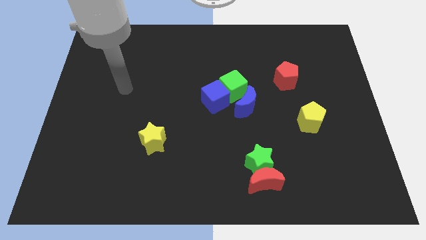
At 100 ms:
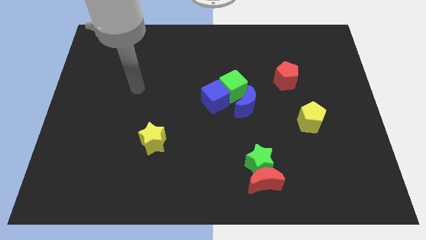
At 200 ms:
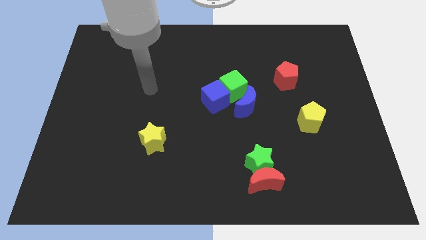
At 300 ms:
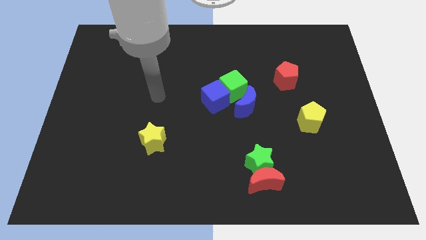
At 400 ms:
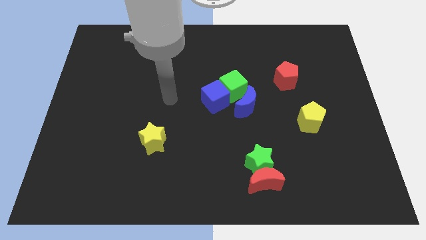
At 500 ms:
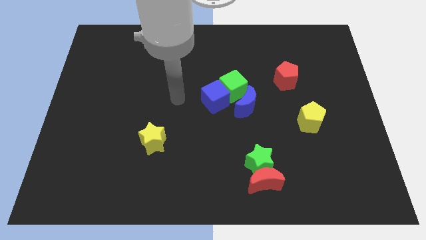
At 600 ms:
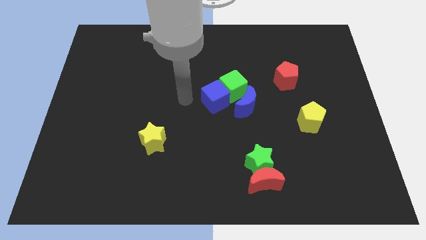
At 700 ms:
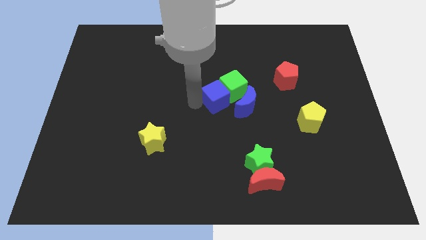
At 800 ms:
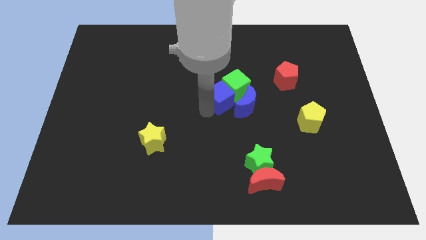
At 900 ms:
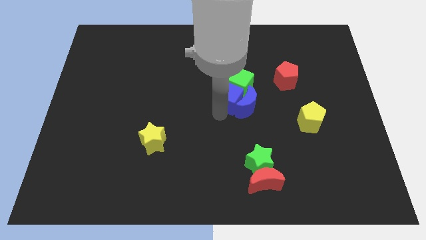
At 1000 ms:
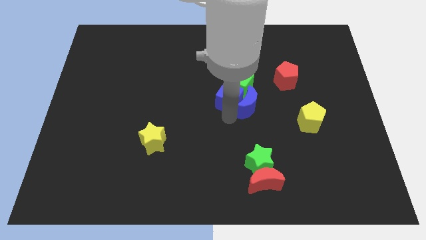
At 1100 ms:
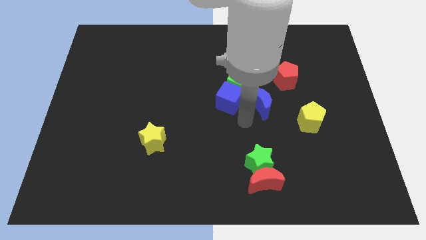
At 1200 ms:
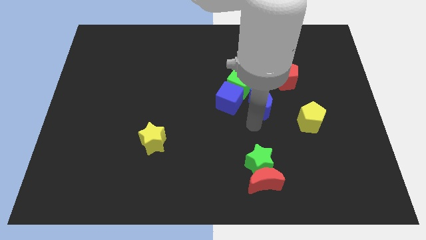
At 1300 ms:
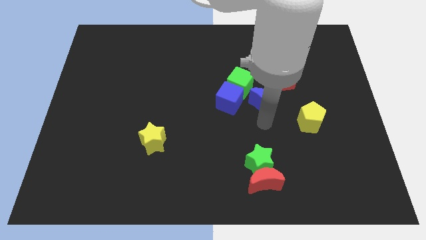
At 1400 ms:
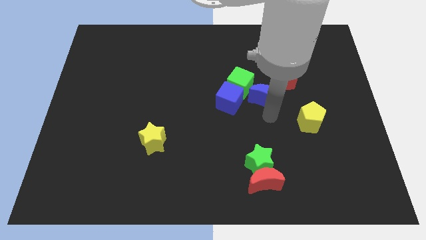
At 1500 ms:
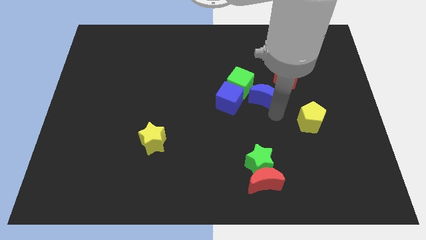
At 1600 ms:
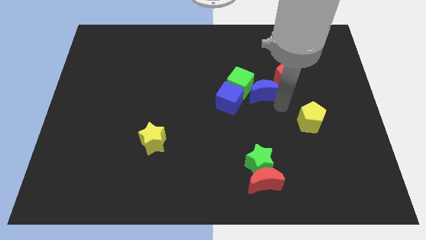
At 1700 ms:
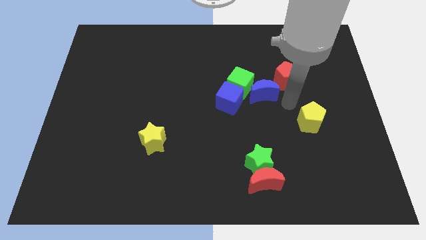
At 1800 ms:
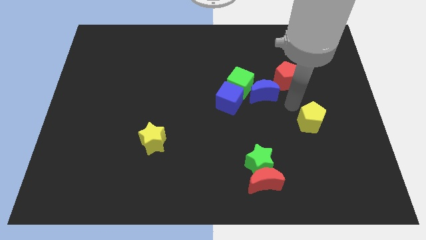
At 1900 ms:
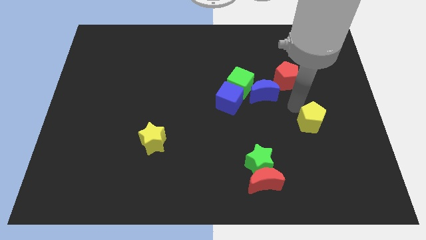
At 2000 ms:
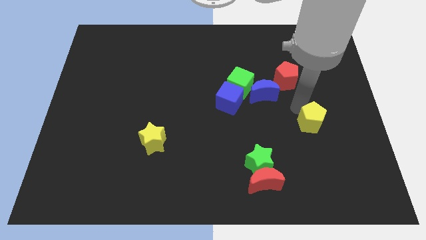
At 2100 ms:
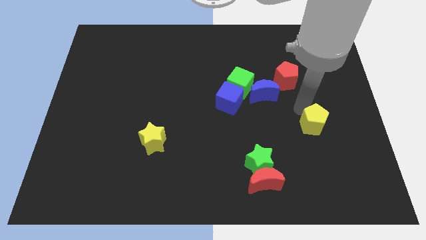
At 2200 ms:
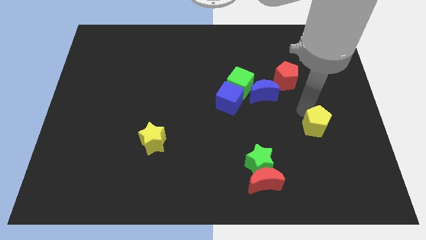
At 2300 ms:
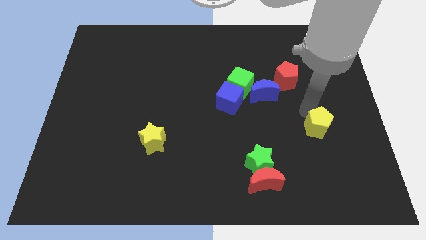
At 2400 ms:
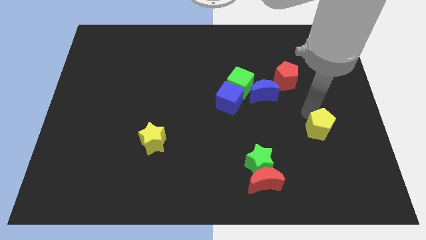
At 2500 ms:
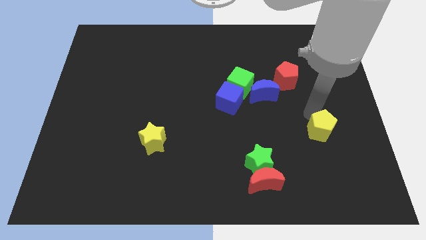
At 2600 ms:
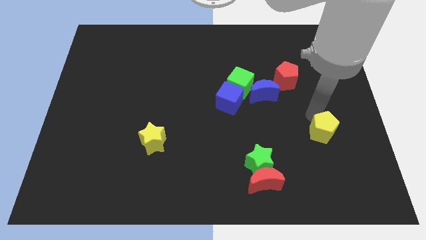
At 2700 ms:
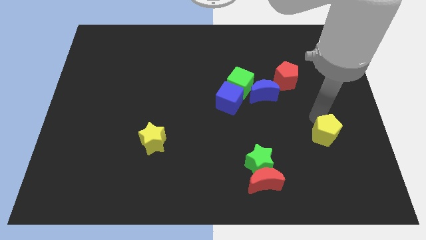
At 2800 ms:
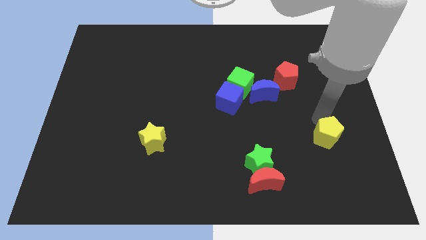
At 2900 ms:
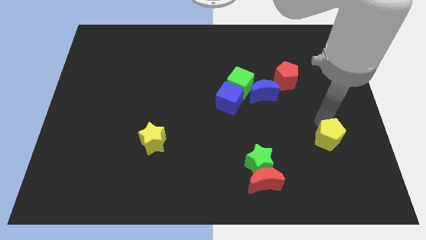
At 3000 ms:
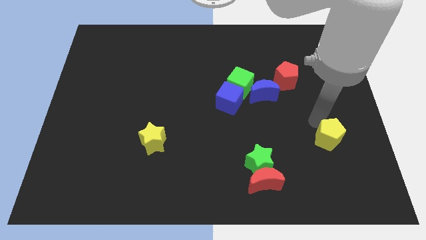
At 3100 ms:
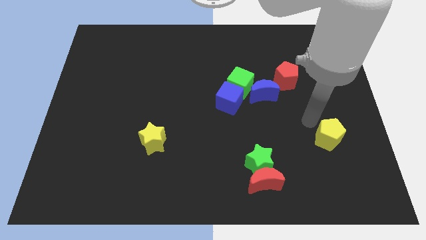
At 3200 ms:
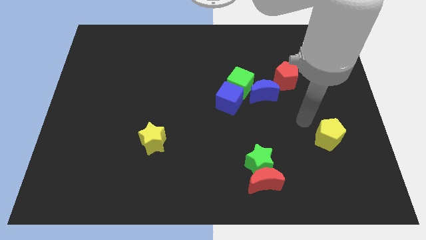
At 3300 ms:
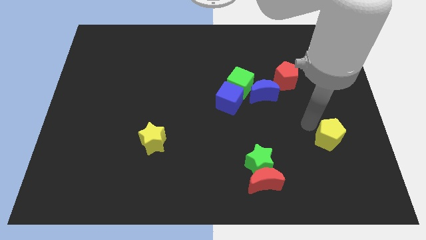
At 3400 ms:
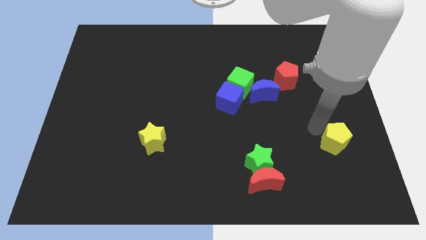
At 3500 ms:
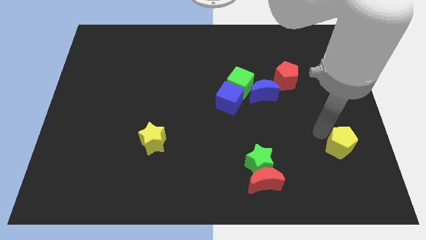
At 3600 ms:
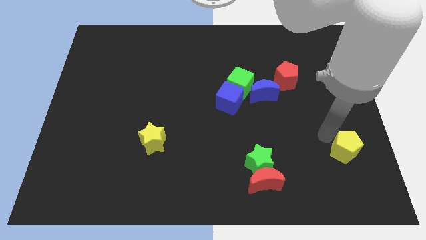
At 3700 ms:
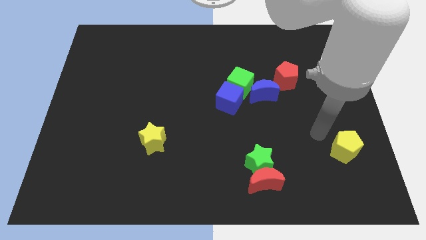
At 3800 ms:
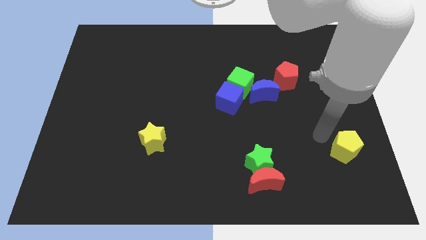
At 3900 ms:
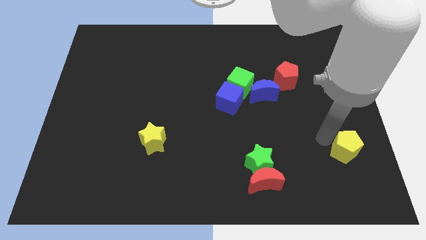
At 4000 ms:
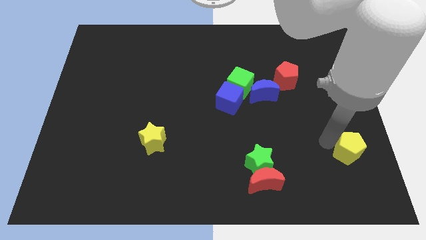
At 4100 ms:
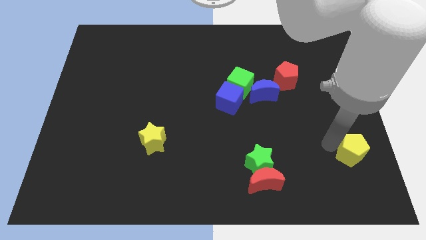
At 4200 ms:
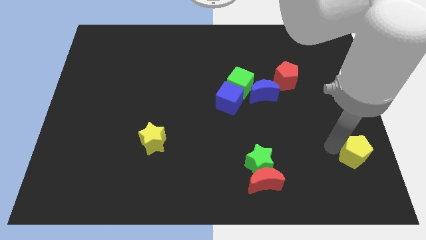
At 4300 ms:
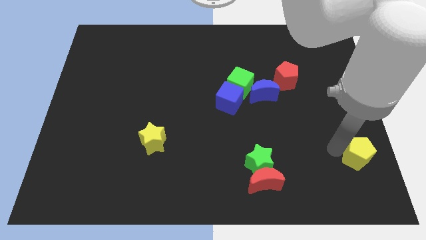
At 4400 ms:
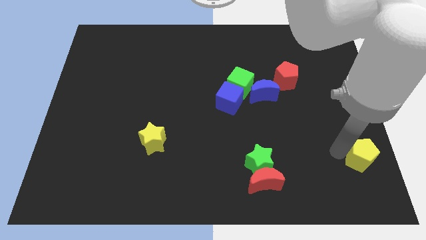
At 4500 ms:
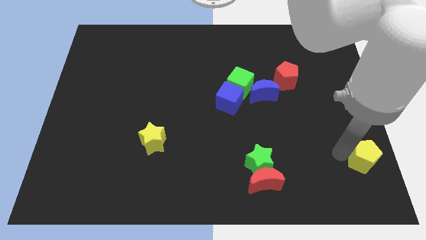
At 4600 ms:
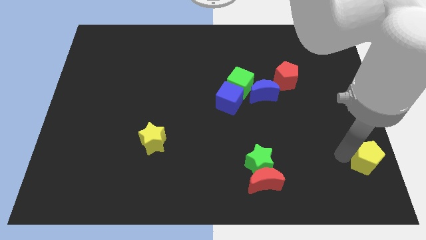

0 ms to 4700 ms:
push the yellow pentagon to the bottom right corner

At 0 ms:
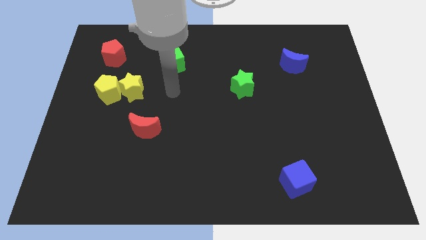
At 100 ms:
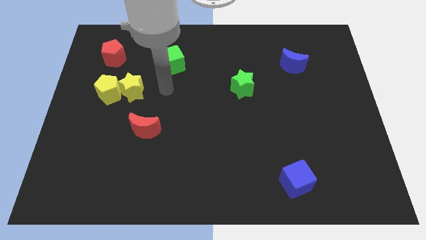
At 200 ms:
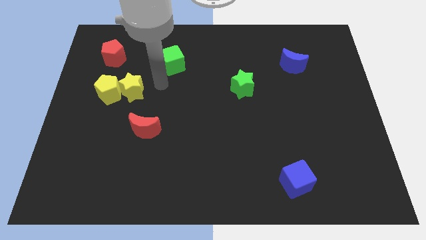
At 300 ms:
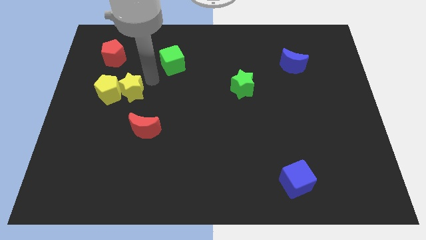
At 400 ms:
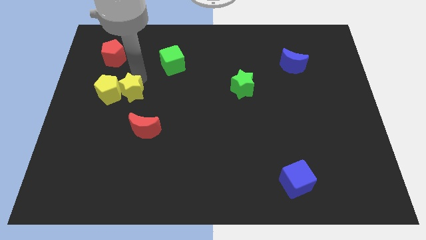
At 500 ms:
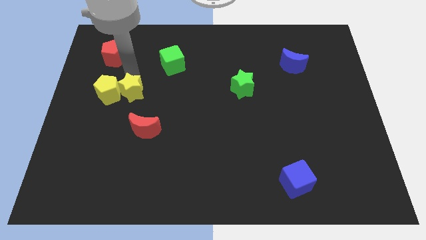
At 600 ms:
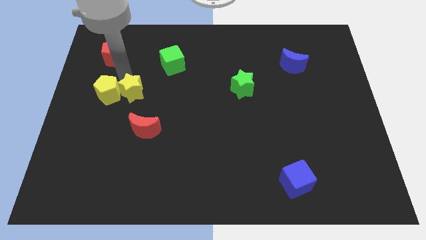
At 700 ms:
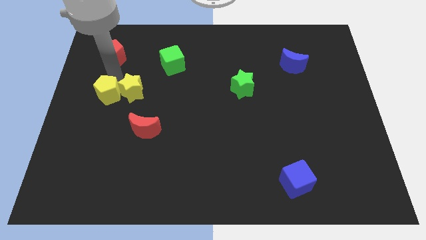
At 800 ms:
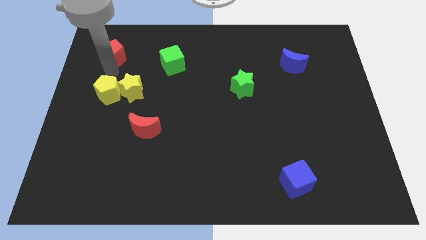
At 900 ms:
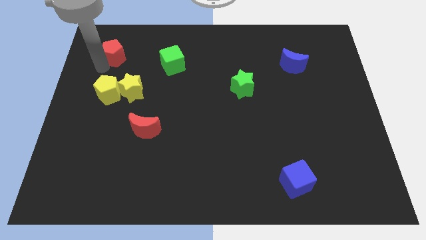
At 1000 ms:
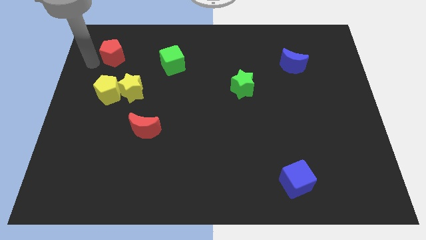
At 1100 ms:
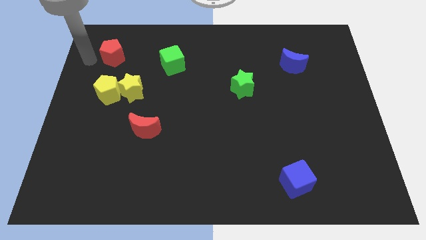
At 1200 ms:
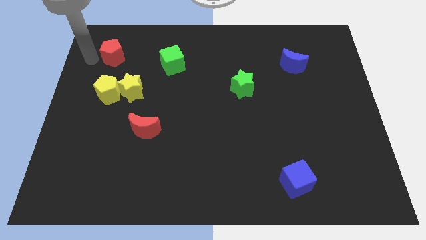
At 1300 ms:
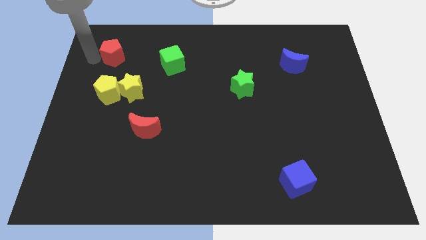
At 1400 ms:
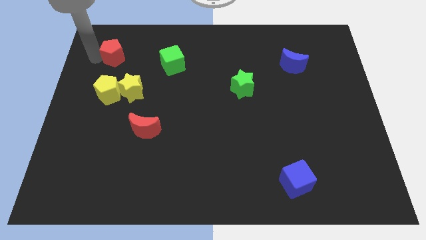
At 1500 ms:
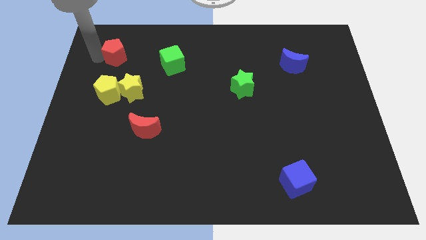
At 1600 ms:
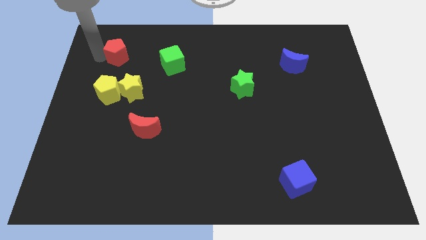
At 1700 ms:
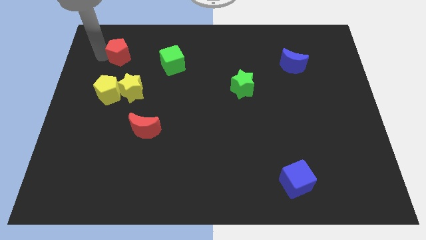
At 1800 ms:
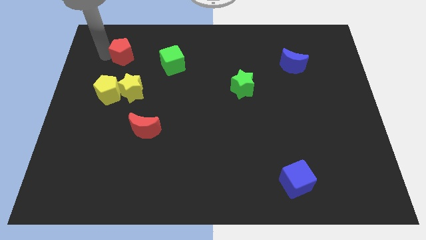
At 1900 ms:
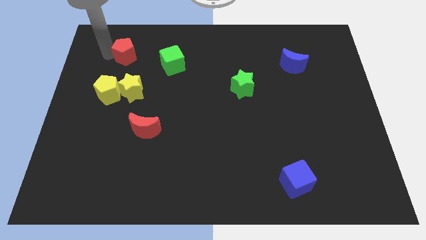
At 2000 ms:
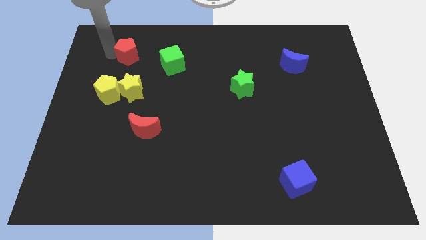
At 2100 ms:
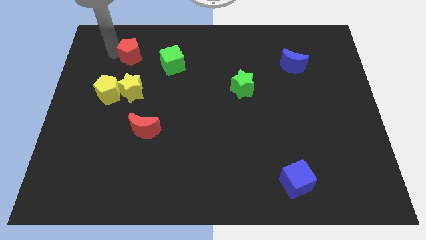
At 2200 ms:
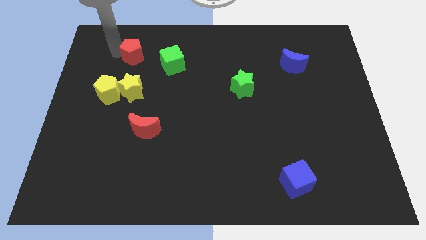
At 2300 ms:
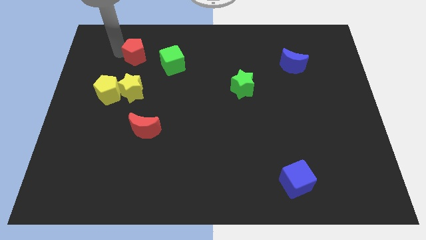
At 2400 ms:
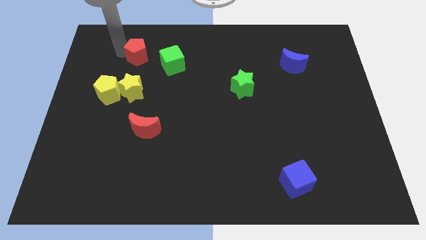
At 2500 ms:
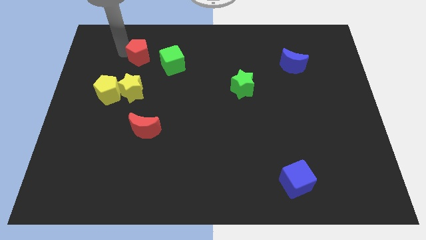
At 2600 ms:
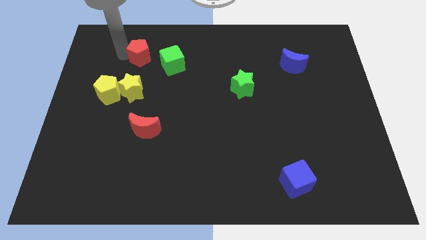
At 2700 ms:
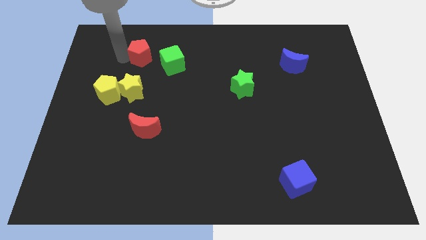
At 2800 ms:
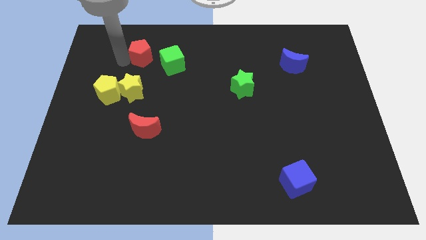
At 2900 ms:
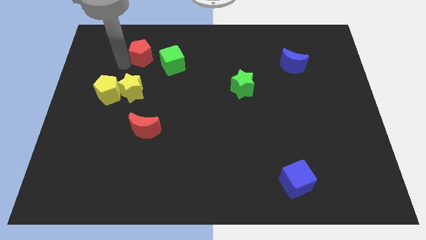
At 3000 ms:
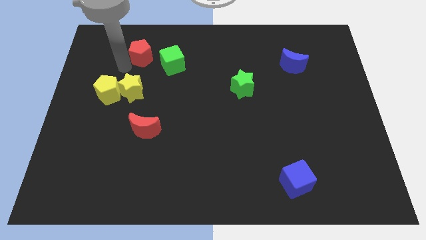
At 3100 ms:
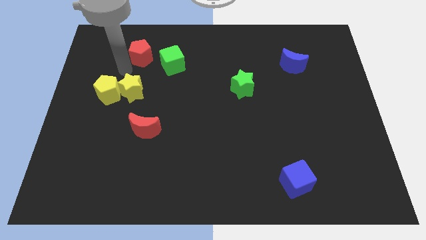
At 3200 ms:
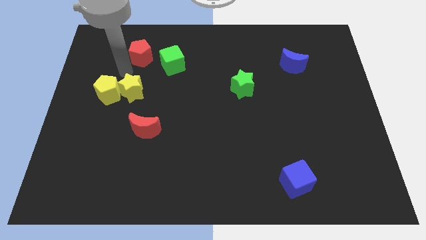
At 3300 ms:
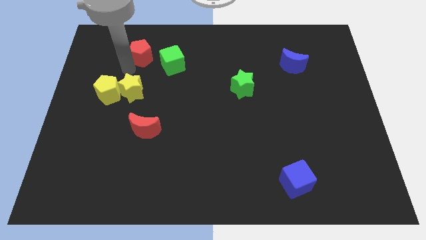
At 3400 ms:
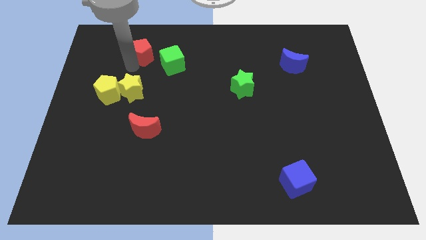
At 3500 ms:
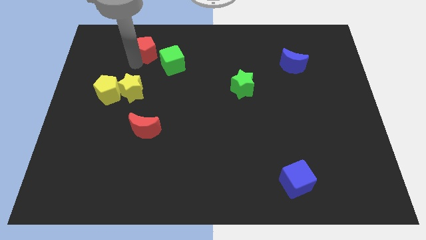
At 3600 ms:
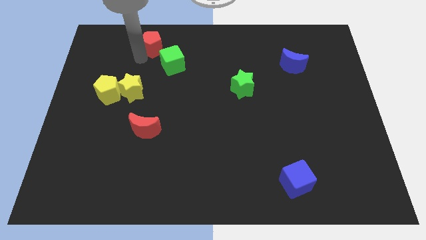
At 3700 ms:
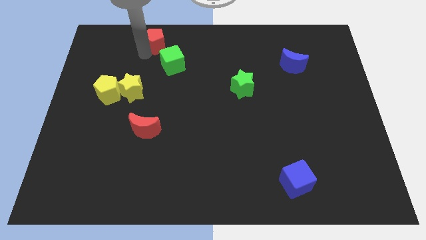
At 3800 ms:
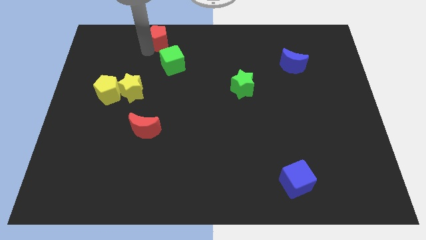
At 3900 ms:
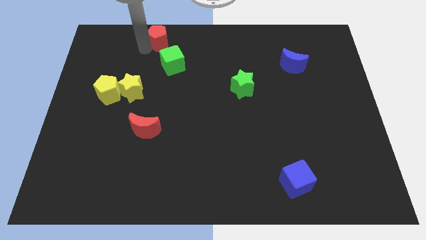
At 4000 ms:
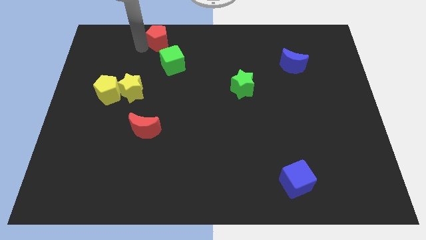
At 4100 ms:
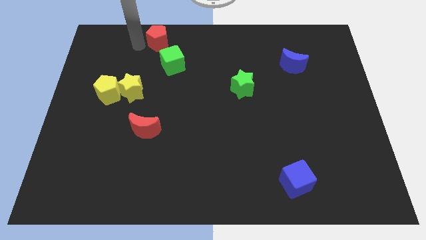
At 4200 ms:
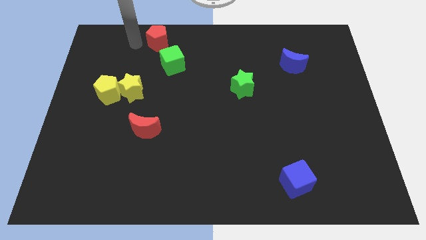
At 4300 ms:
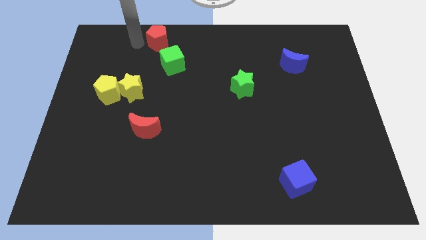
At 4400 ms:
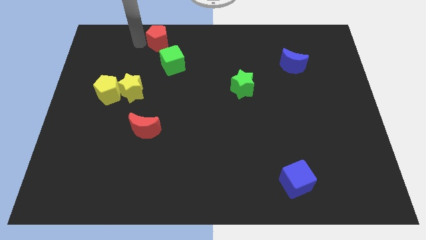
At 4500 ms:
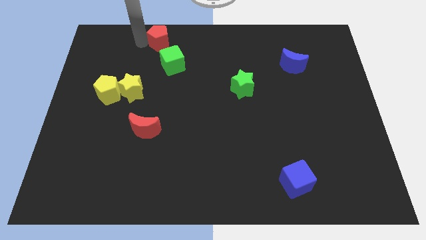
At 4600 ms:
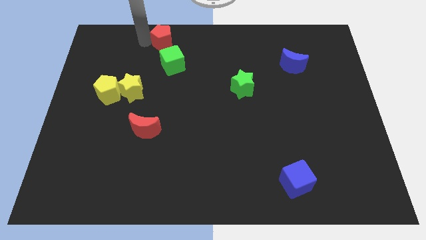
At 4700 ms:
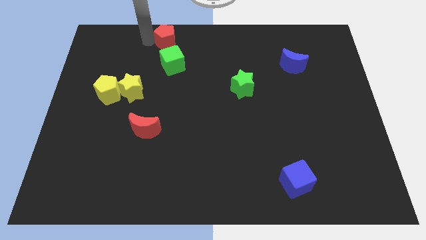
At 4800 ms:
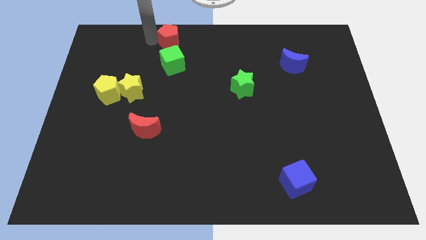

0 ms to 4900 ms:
move the red pentagon to the top side
